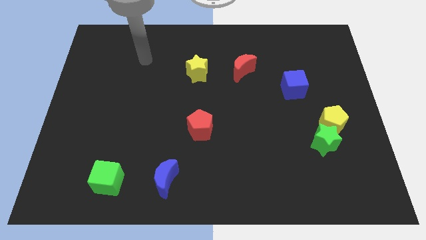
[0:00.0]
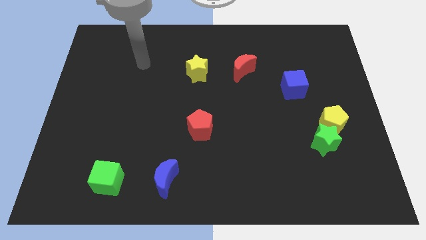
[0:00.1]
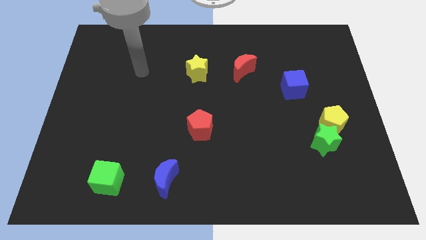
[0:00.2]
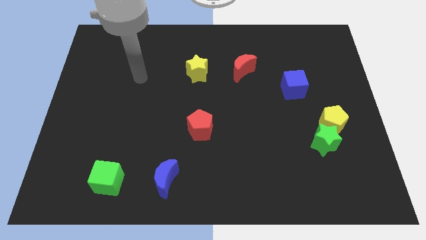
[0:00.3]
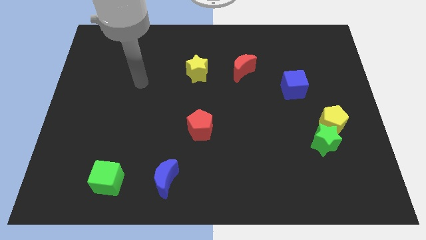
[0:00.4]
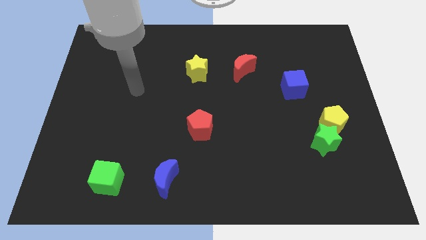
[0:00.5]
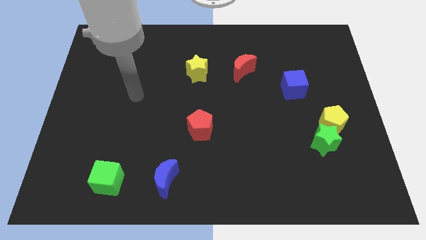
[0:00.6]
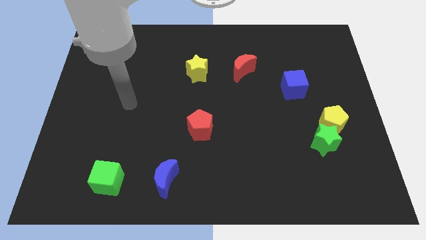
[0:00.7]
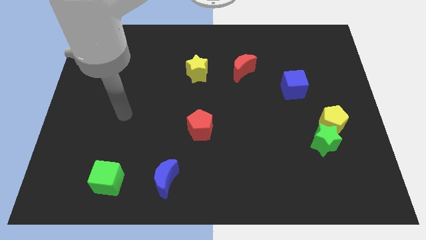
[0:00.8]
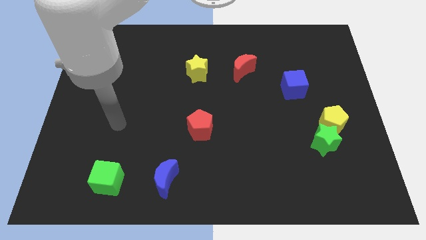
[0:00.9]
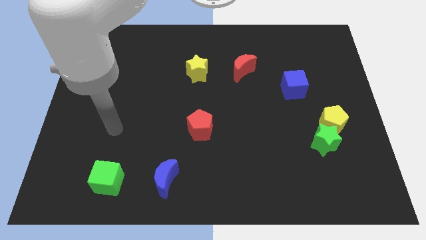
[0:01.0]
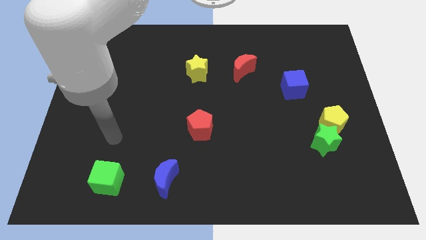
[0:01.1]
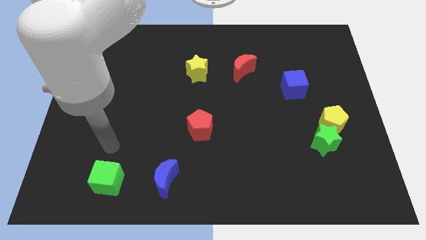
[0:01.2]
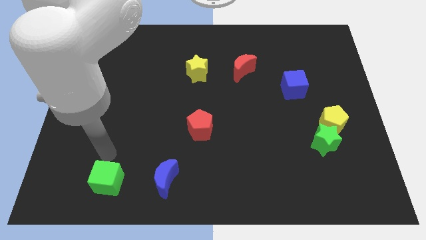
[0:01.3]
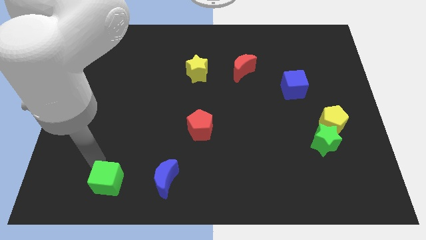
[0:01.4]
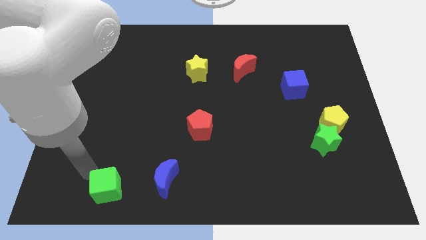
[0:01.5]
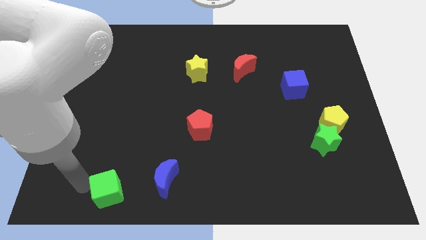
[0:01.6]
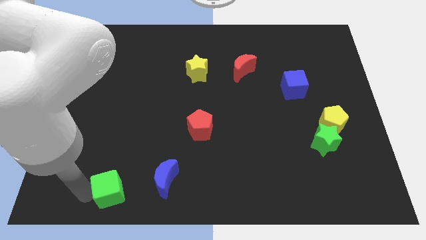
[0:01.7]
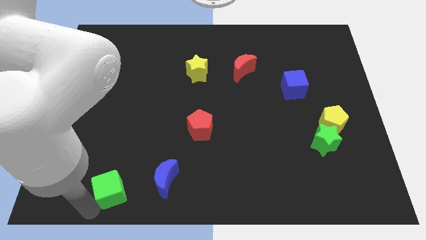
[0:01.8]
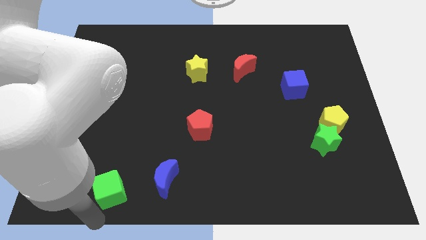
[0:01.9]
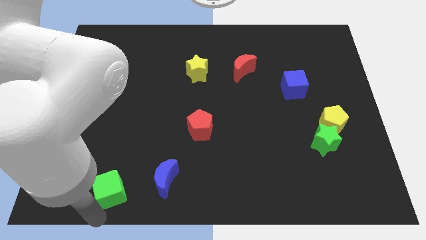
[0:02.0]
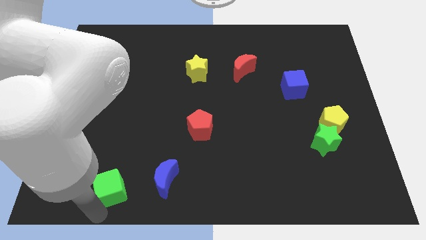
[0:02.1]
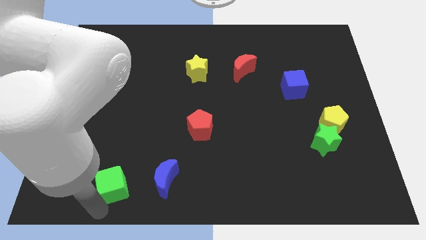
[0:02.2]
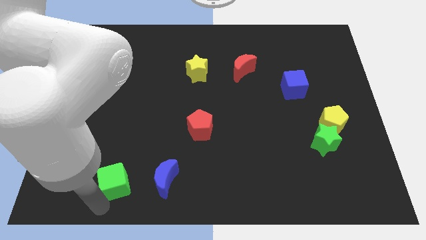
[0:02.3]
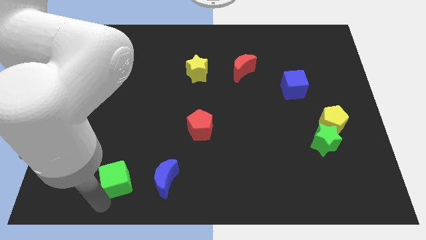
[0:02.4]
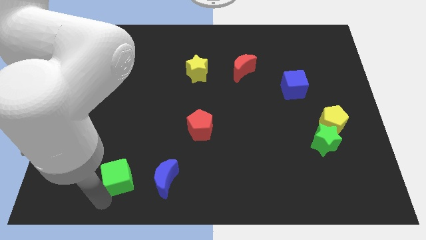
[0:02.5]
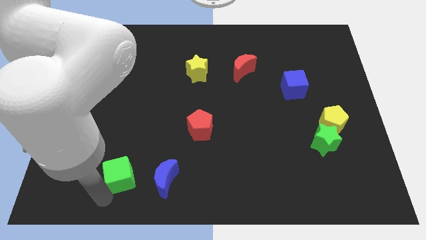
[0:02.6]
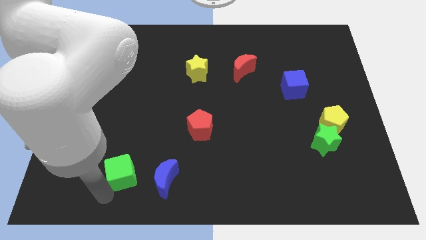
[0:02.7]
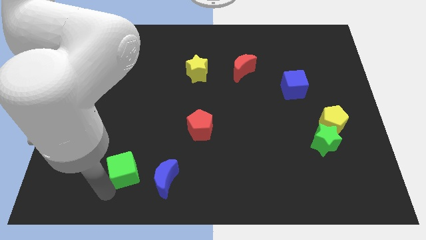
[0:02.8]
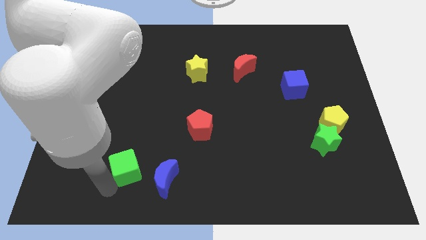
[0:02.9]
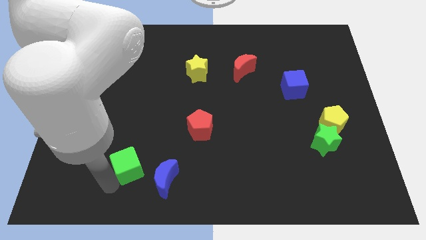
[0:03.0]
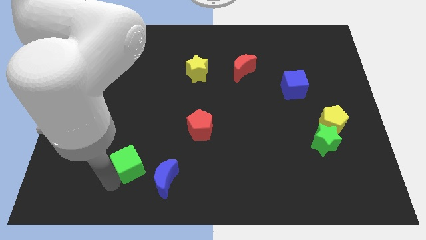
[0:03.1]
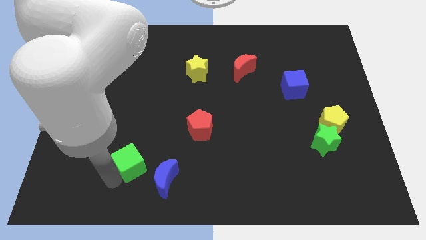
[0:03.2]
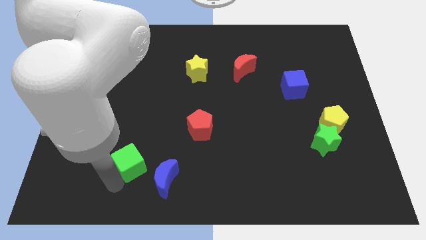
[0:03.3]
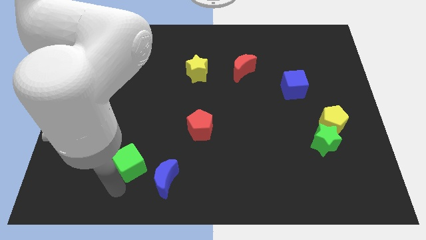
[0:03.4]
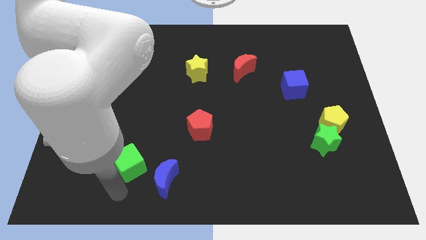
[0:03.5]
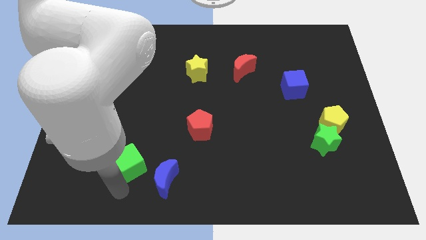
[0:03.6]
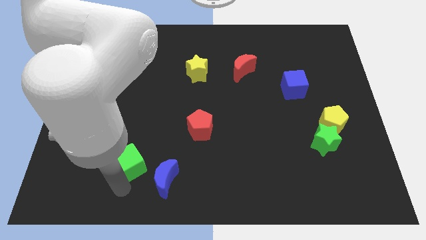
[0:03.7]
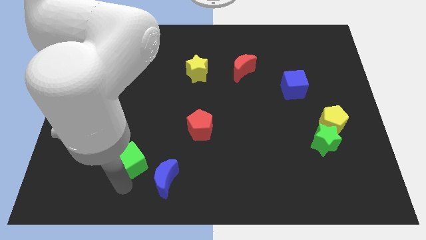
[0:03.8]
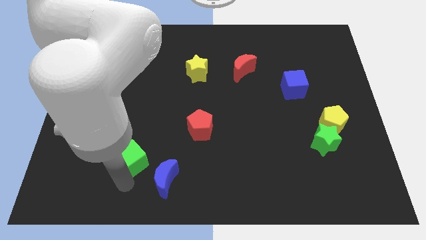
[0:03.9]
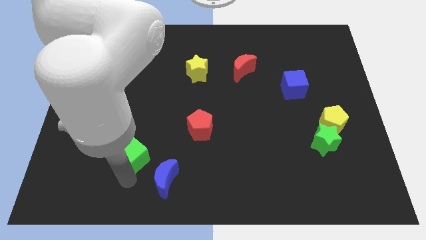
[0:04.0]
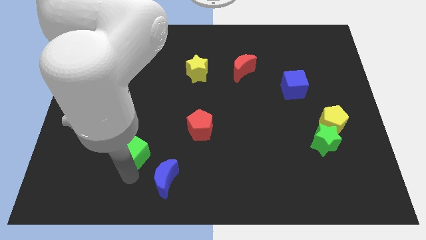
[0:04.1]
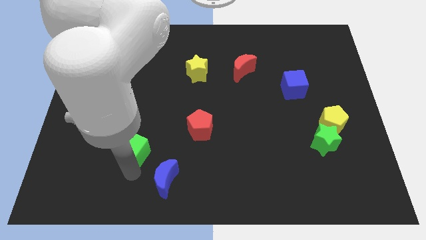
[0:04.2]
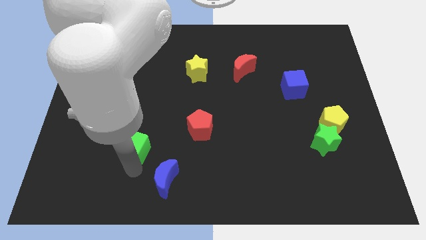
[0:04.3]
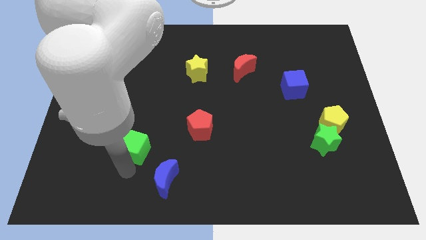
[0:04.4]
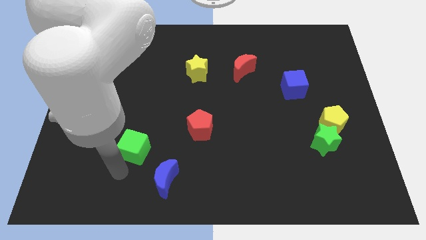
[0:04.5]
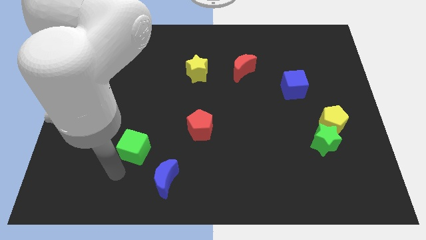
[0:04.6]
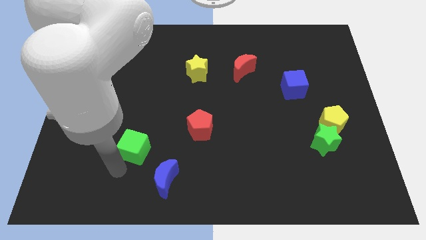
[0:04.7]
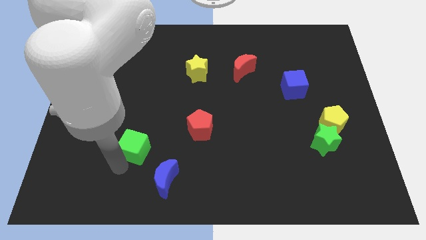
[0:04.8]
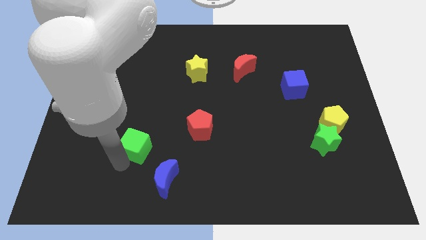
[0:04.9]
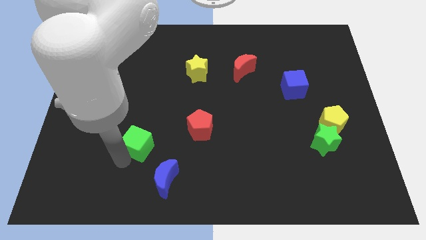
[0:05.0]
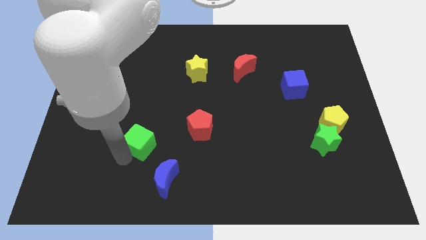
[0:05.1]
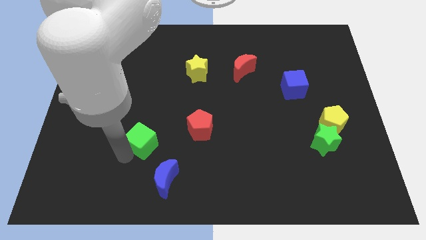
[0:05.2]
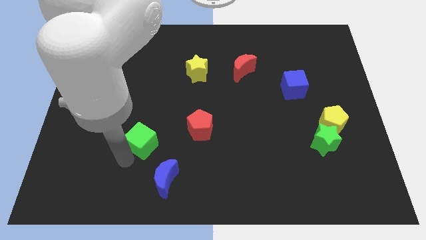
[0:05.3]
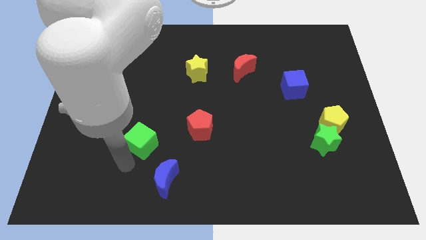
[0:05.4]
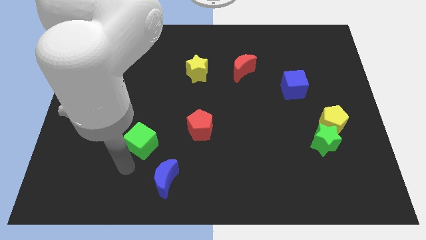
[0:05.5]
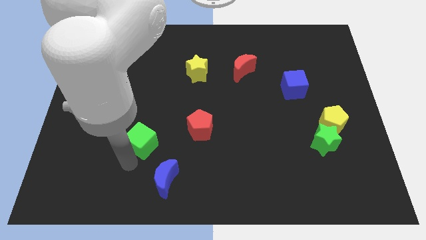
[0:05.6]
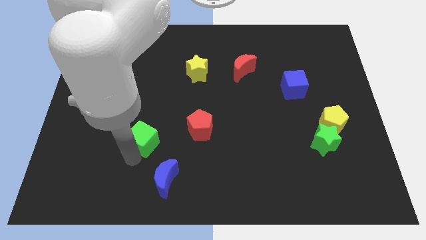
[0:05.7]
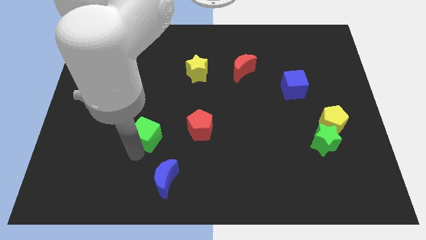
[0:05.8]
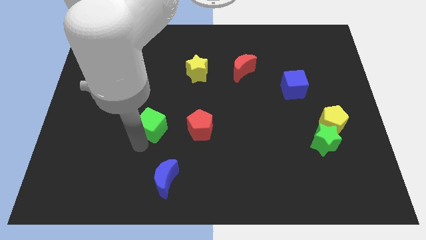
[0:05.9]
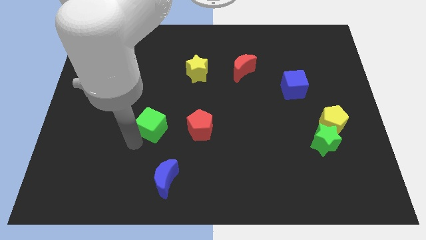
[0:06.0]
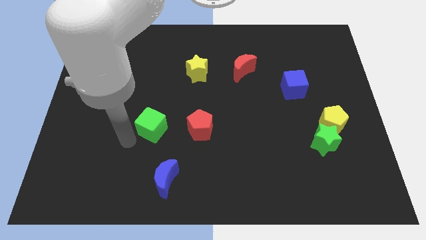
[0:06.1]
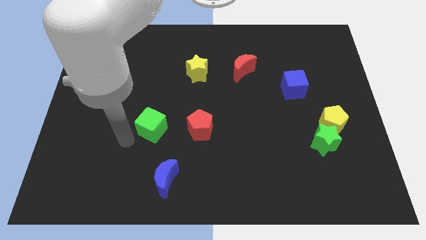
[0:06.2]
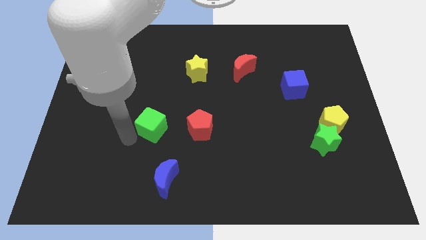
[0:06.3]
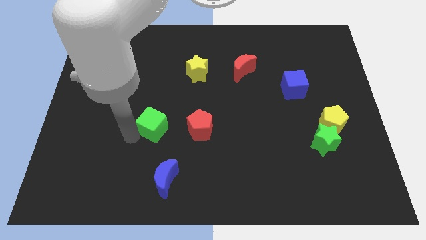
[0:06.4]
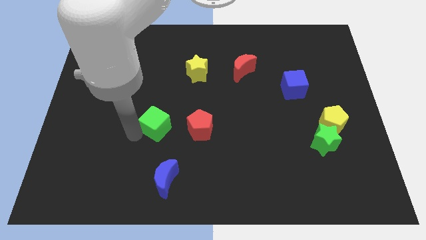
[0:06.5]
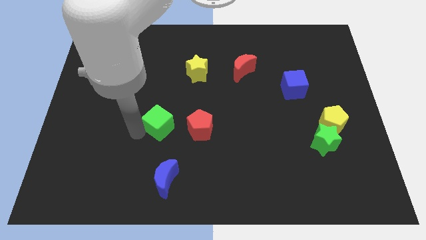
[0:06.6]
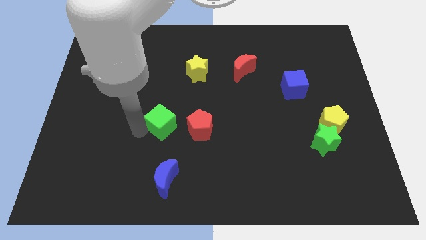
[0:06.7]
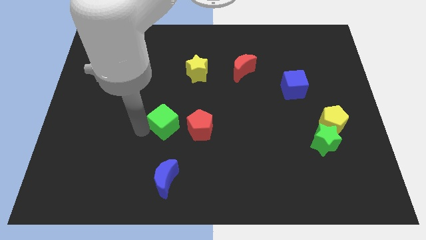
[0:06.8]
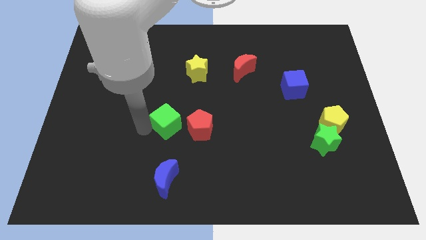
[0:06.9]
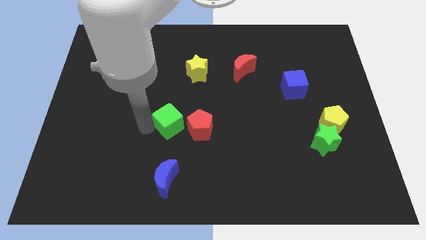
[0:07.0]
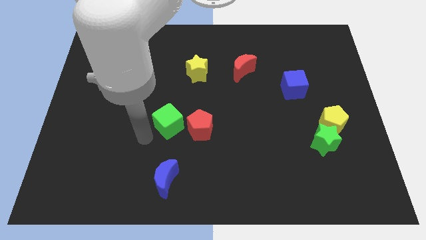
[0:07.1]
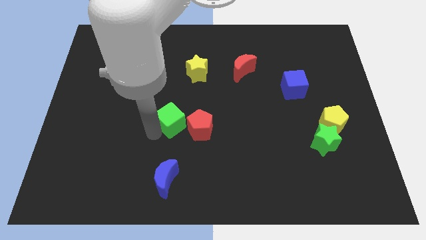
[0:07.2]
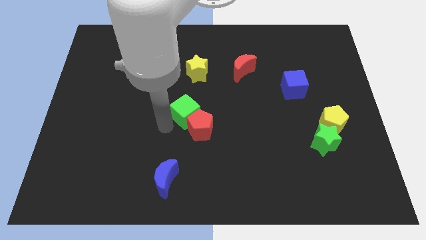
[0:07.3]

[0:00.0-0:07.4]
slide the green cube up and to the right

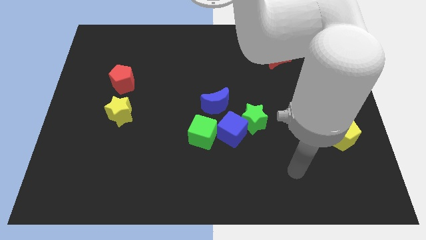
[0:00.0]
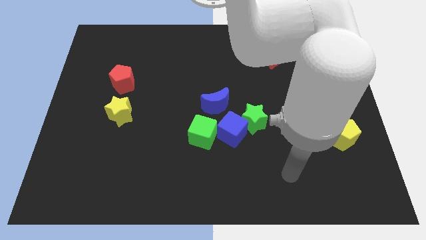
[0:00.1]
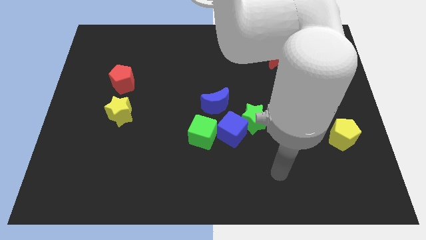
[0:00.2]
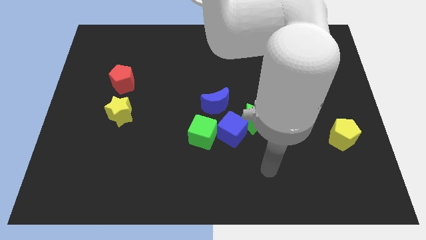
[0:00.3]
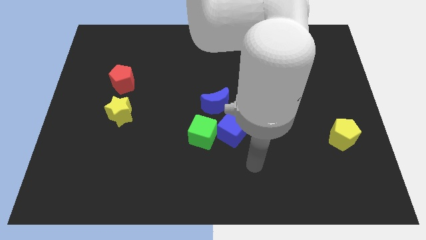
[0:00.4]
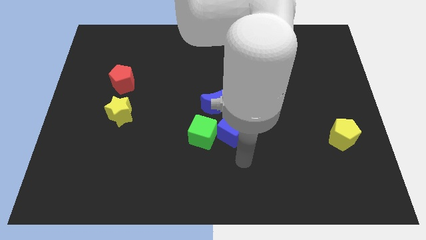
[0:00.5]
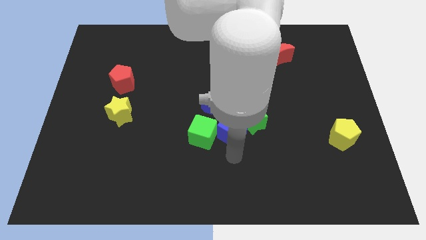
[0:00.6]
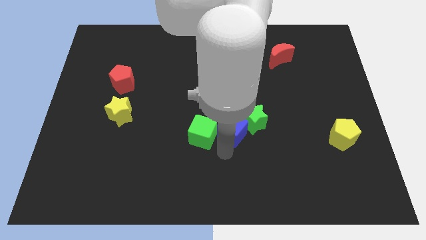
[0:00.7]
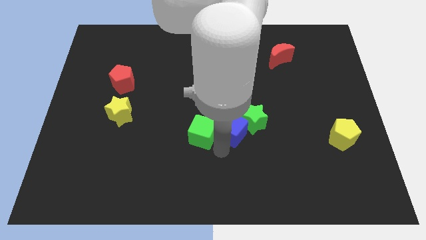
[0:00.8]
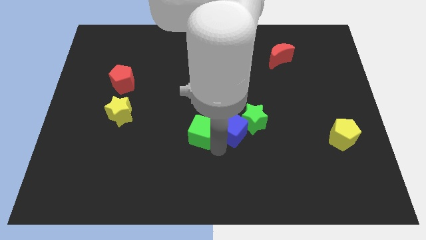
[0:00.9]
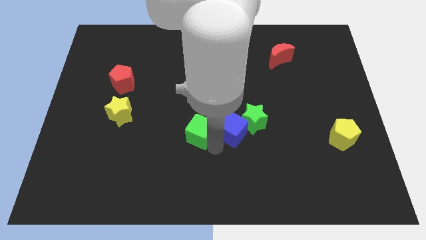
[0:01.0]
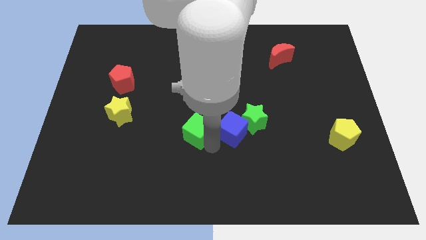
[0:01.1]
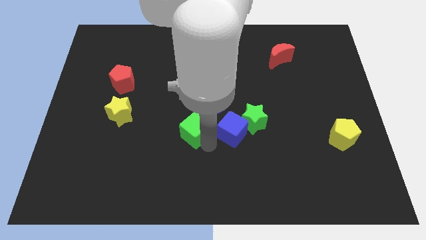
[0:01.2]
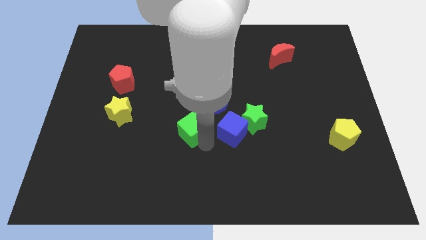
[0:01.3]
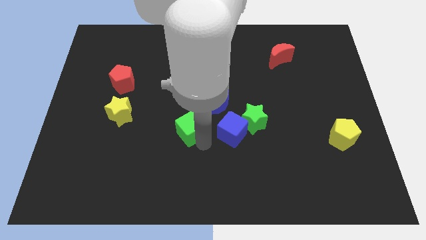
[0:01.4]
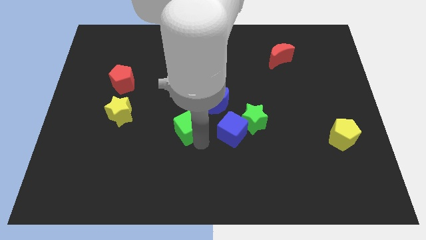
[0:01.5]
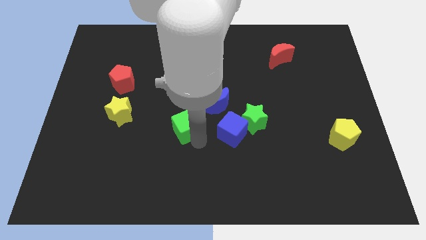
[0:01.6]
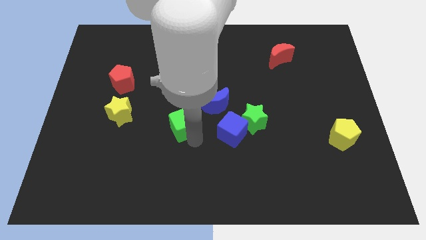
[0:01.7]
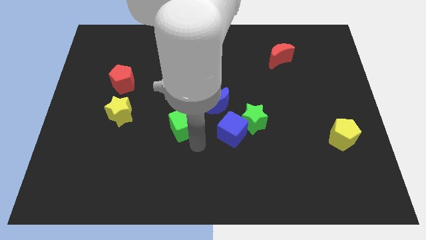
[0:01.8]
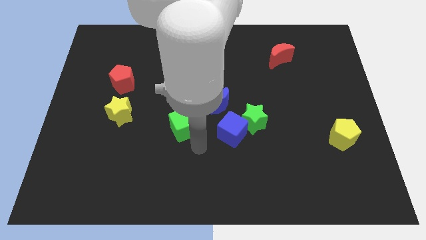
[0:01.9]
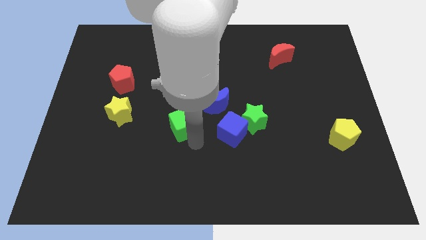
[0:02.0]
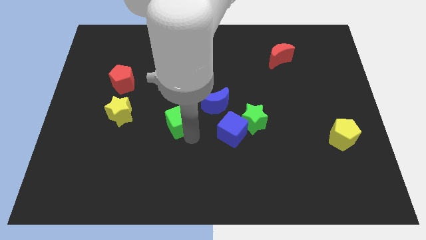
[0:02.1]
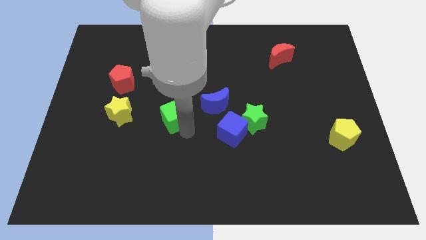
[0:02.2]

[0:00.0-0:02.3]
move the green cube diagonally upwards and left a little bit
